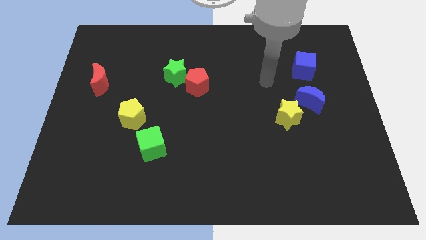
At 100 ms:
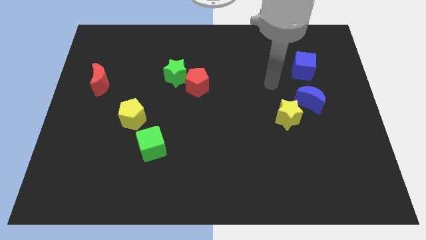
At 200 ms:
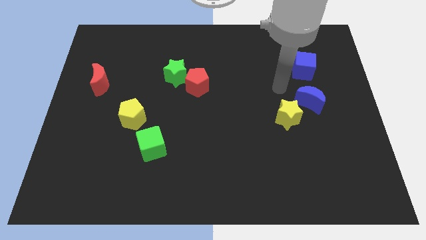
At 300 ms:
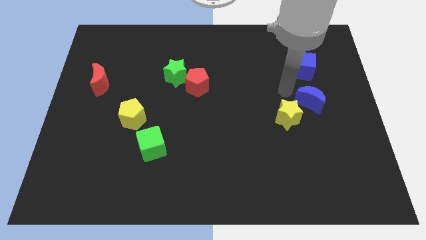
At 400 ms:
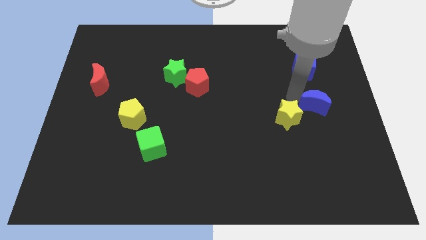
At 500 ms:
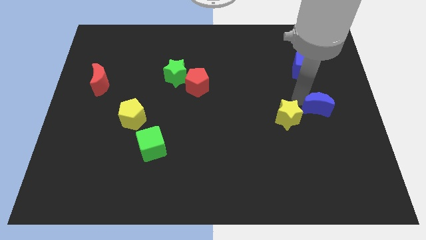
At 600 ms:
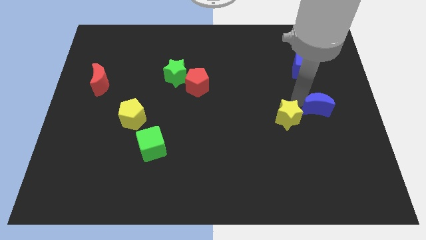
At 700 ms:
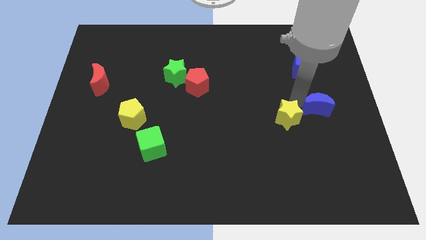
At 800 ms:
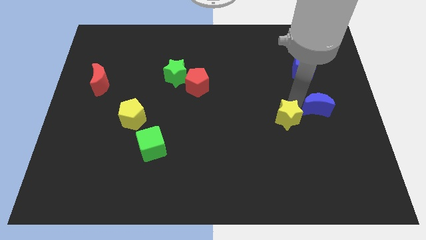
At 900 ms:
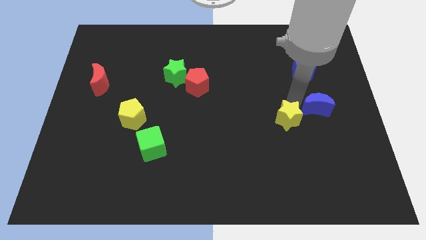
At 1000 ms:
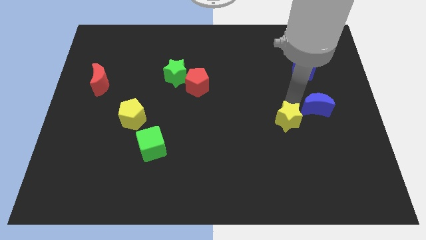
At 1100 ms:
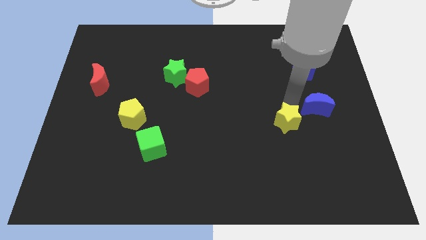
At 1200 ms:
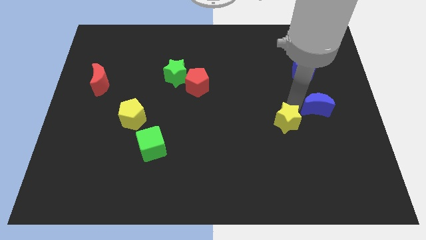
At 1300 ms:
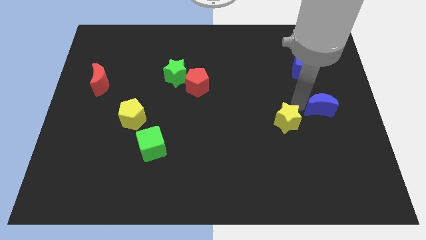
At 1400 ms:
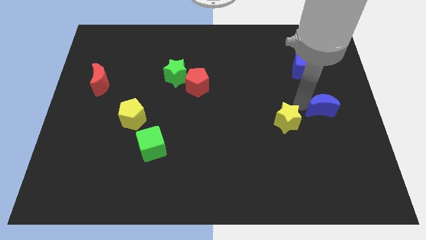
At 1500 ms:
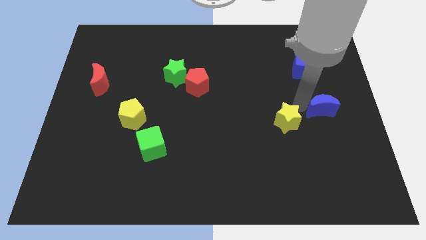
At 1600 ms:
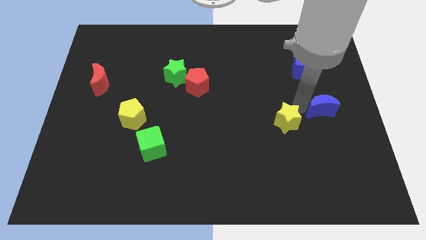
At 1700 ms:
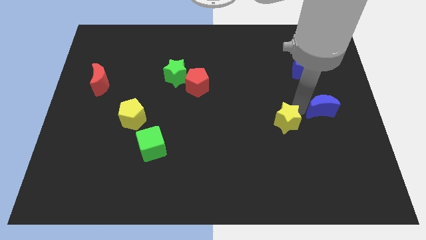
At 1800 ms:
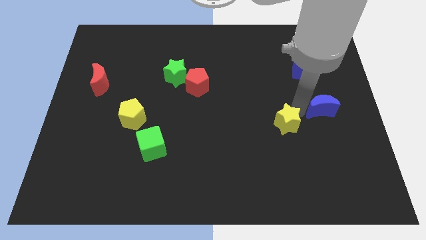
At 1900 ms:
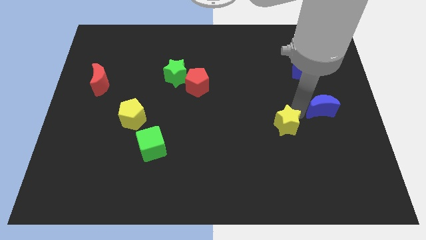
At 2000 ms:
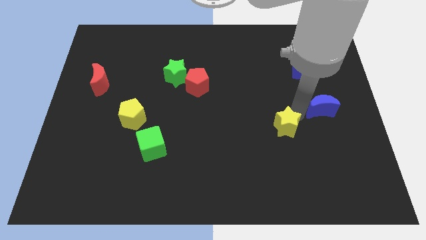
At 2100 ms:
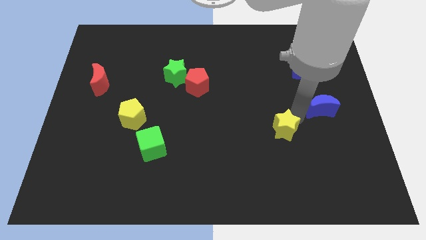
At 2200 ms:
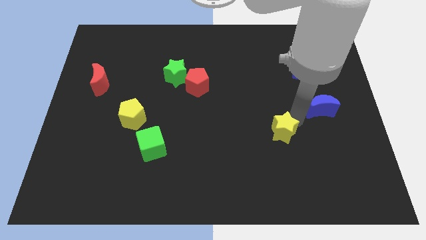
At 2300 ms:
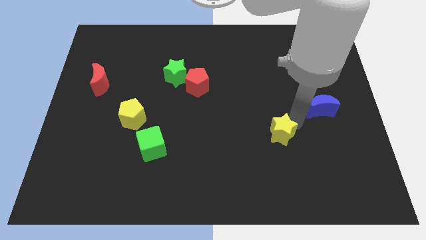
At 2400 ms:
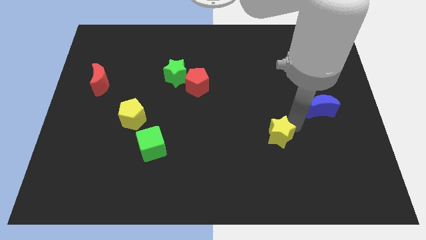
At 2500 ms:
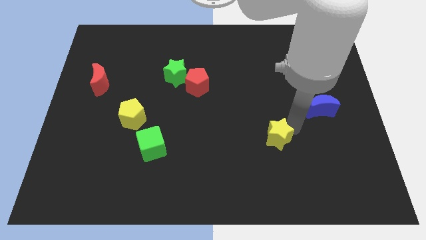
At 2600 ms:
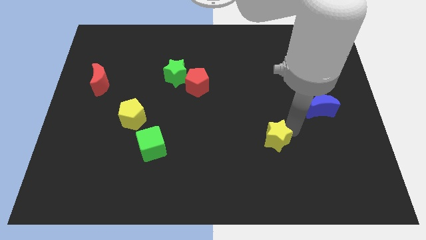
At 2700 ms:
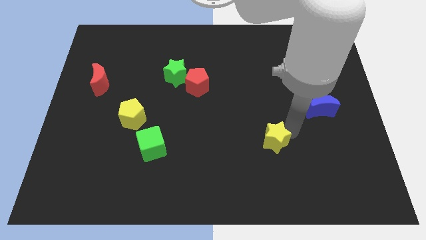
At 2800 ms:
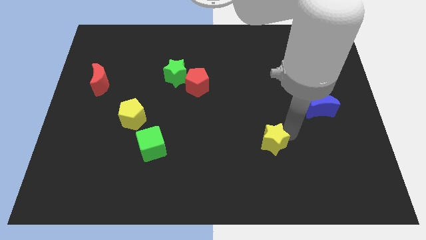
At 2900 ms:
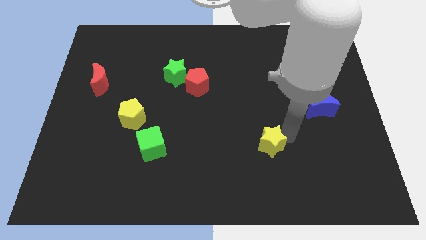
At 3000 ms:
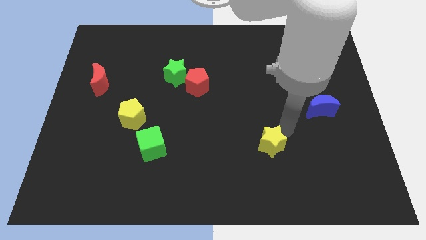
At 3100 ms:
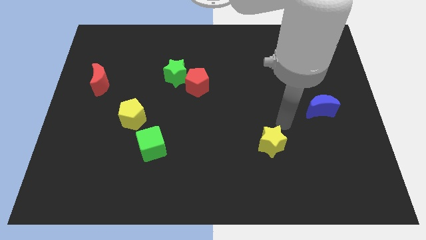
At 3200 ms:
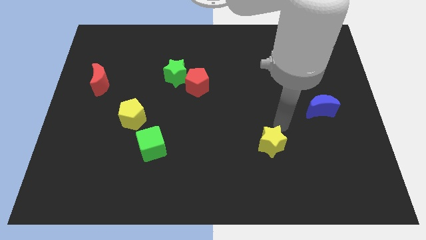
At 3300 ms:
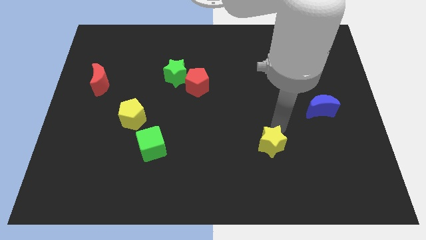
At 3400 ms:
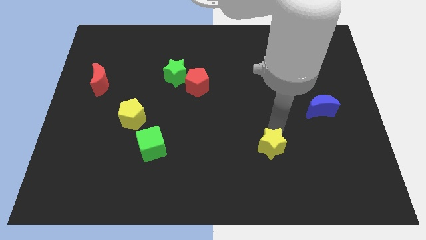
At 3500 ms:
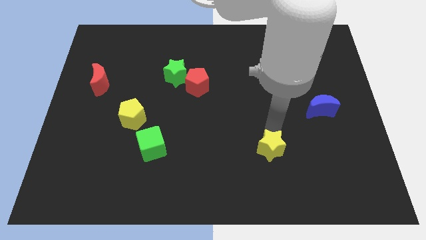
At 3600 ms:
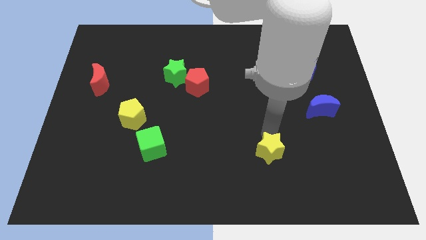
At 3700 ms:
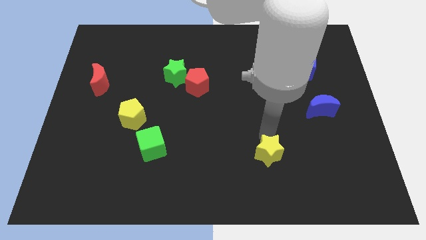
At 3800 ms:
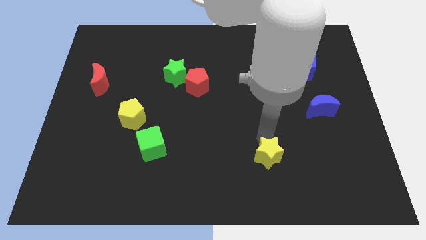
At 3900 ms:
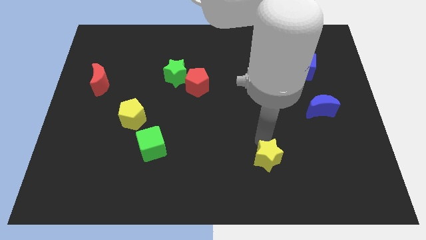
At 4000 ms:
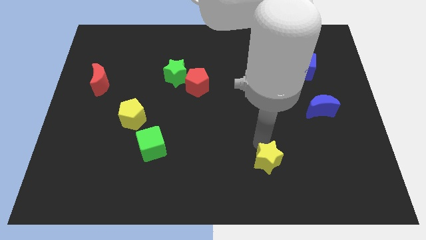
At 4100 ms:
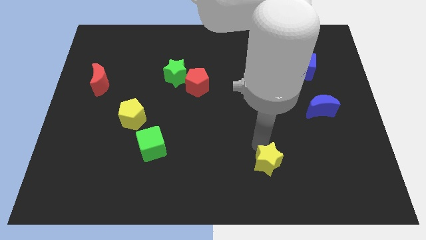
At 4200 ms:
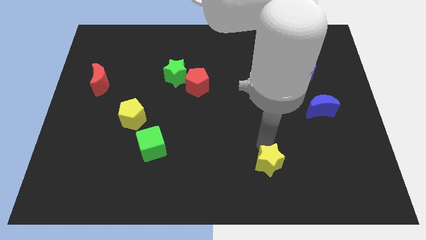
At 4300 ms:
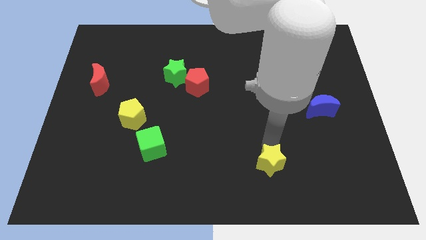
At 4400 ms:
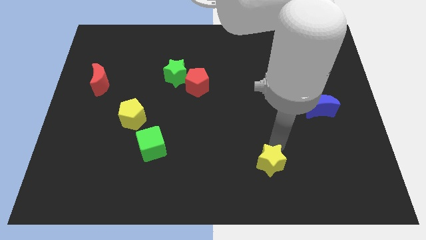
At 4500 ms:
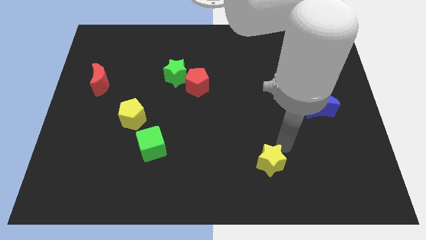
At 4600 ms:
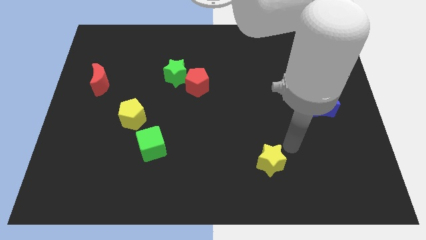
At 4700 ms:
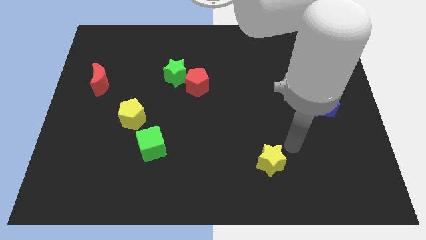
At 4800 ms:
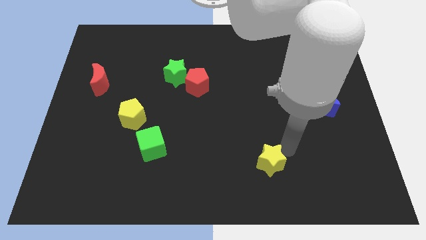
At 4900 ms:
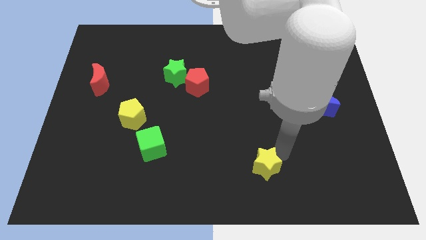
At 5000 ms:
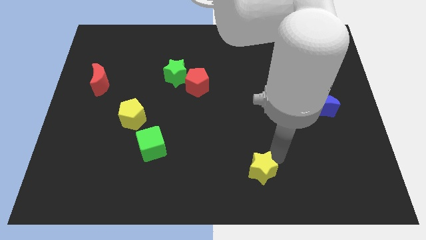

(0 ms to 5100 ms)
move the yellow star to the bottom

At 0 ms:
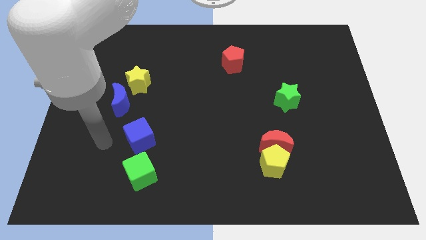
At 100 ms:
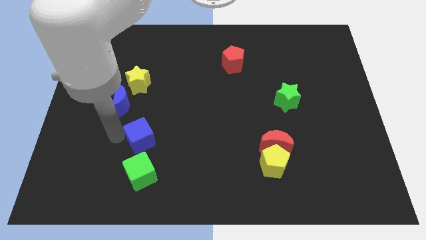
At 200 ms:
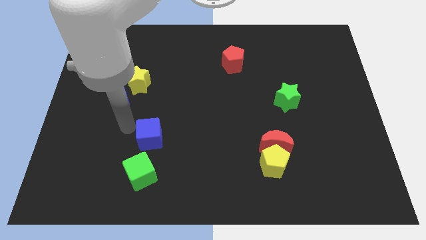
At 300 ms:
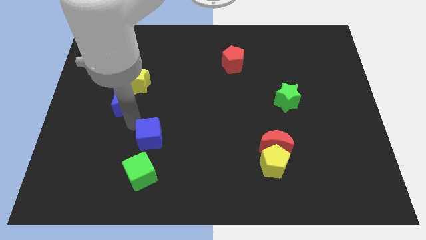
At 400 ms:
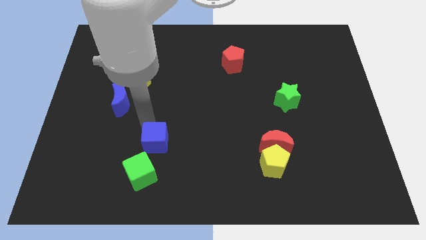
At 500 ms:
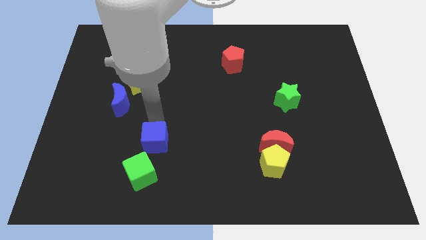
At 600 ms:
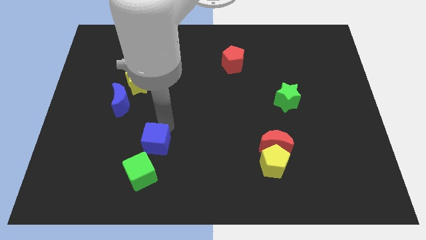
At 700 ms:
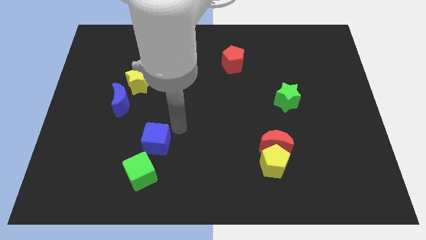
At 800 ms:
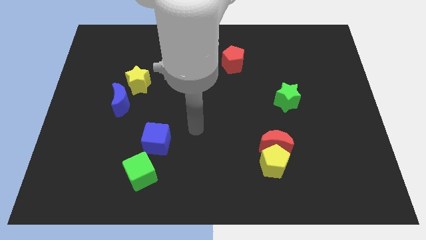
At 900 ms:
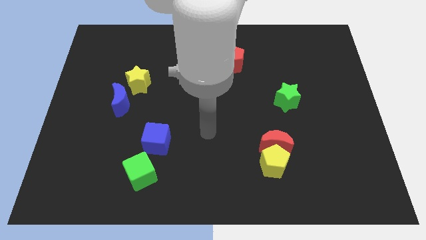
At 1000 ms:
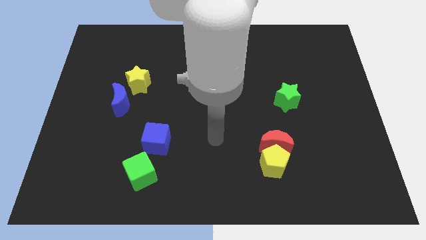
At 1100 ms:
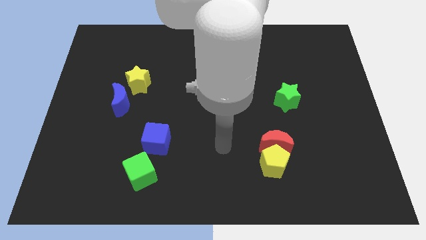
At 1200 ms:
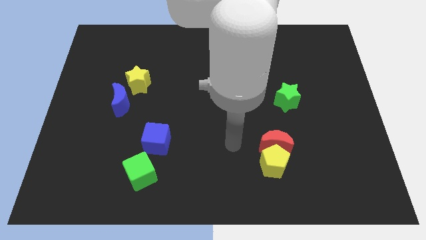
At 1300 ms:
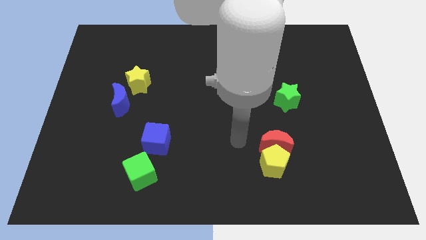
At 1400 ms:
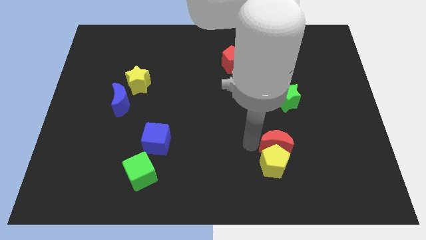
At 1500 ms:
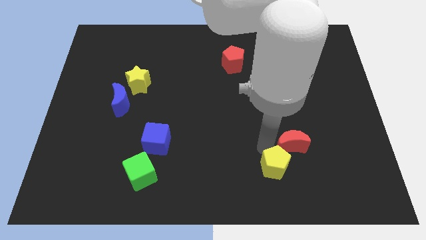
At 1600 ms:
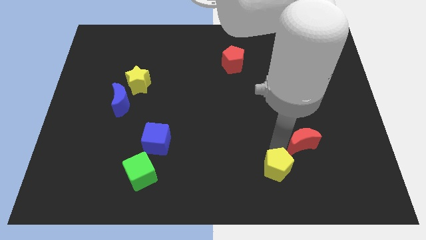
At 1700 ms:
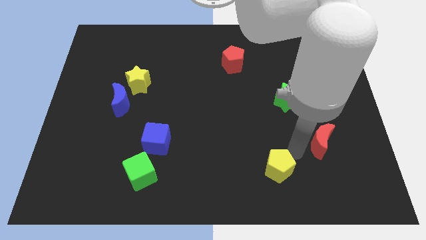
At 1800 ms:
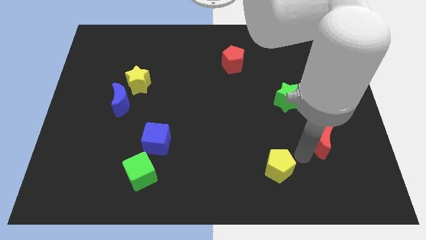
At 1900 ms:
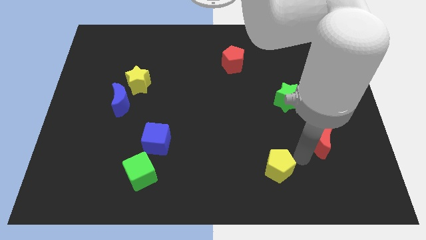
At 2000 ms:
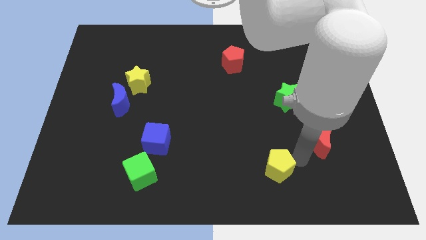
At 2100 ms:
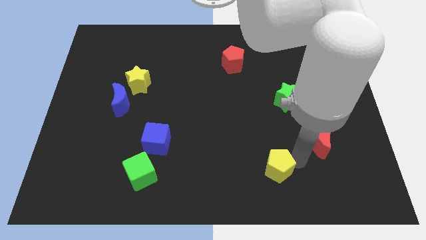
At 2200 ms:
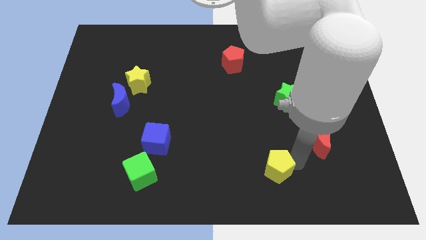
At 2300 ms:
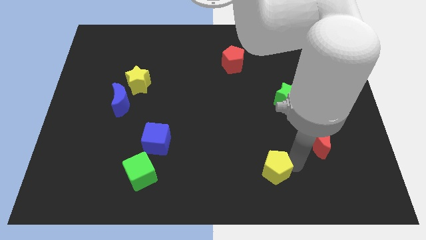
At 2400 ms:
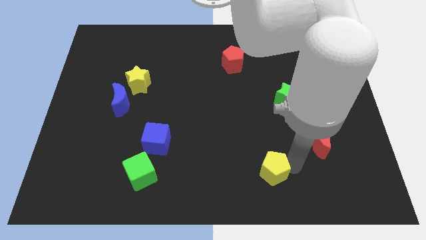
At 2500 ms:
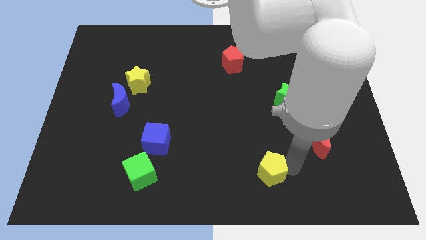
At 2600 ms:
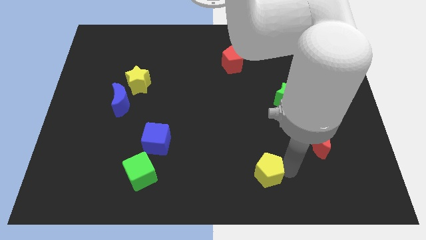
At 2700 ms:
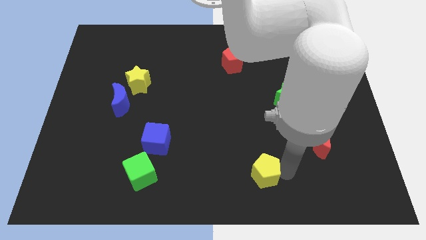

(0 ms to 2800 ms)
slide the yellow pentagon to the bottom
